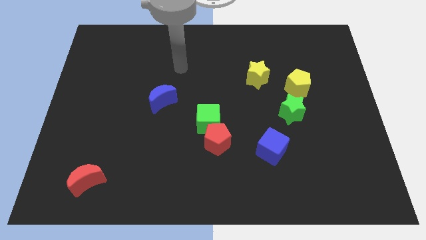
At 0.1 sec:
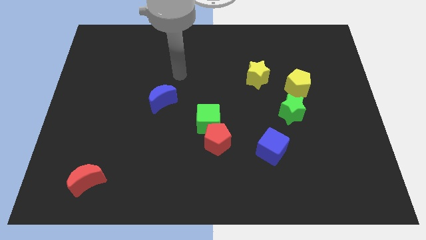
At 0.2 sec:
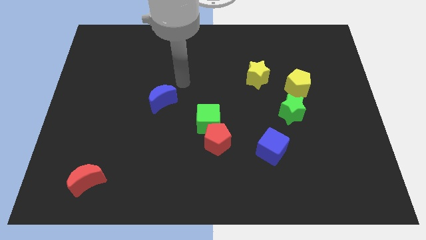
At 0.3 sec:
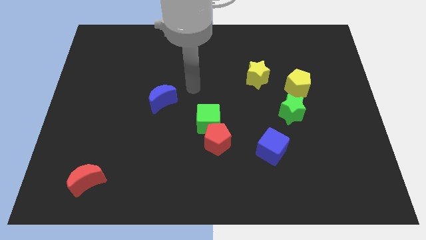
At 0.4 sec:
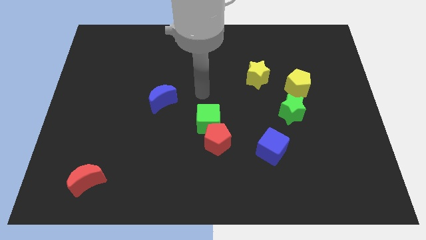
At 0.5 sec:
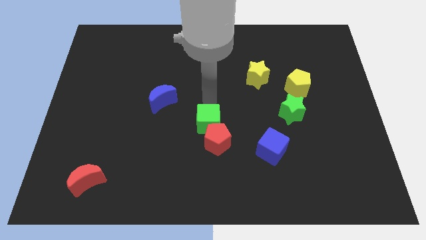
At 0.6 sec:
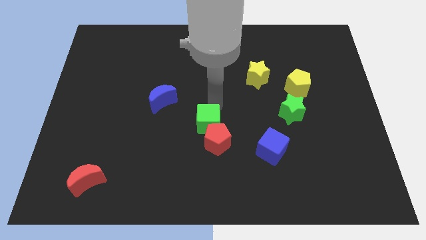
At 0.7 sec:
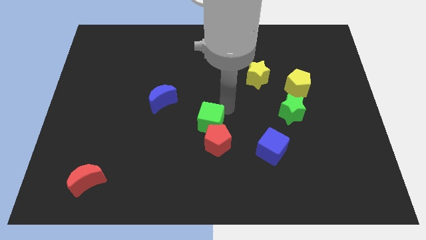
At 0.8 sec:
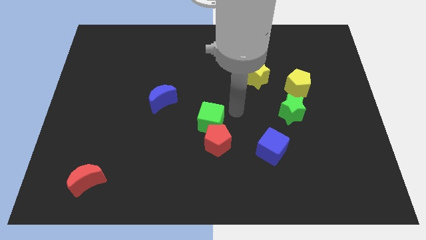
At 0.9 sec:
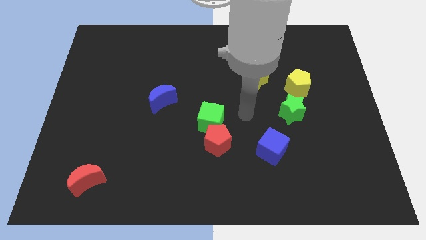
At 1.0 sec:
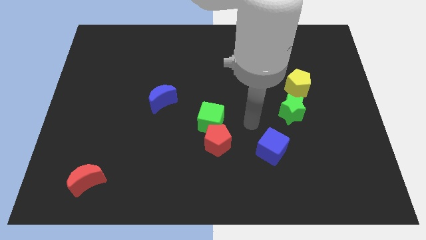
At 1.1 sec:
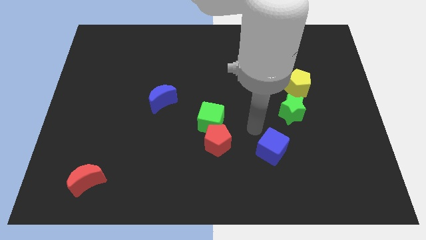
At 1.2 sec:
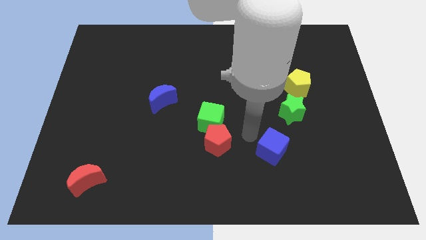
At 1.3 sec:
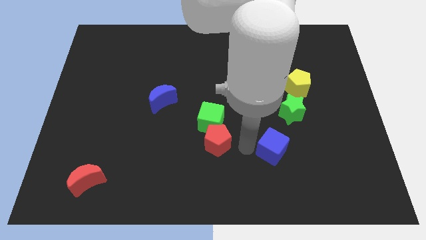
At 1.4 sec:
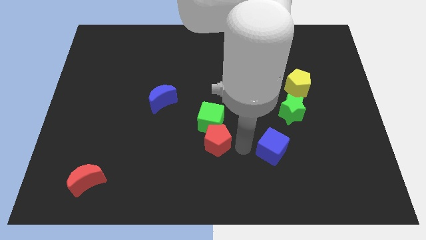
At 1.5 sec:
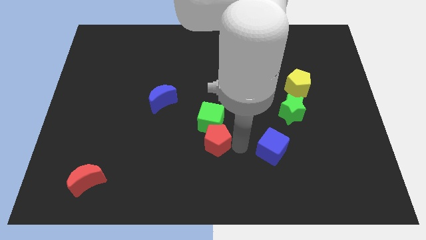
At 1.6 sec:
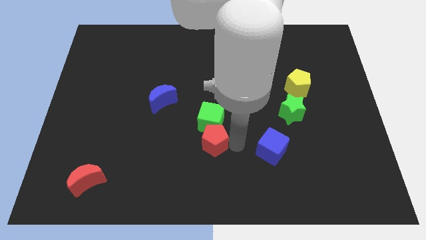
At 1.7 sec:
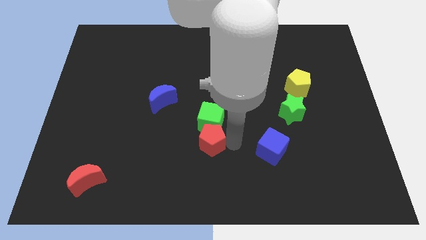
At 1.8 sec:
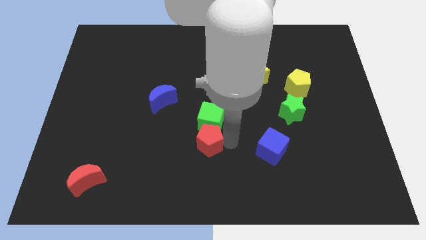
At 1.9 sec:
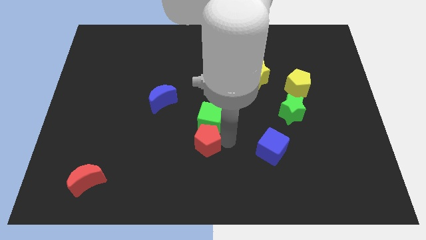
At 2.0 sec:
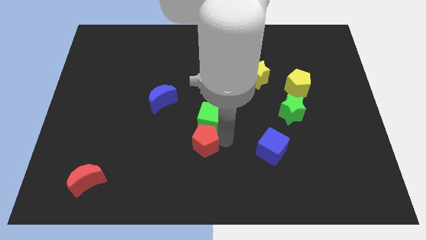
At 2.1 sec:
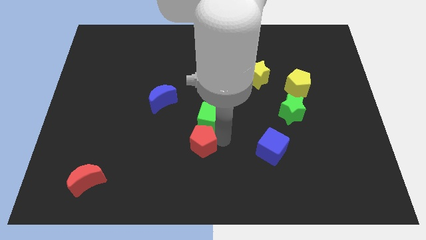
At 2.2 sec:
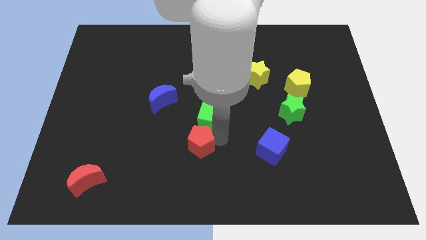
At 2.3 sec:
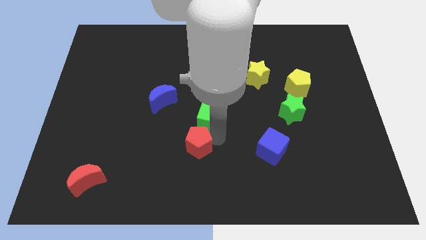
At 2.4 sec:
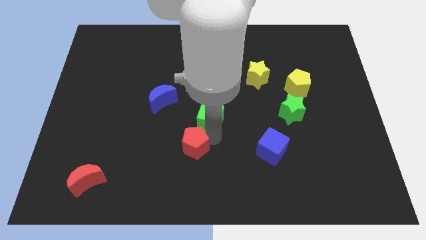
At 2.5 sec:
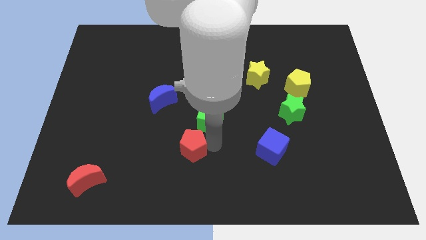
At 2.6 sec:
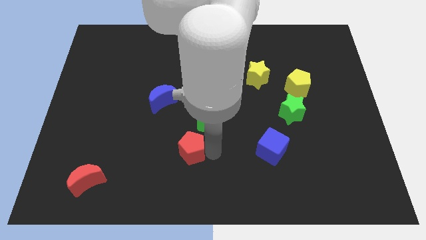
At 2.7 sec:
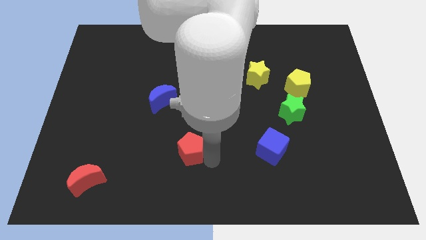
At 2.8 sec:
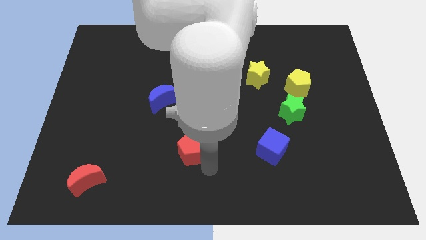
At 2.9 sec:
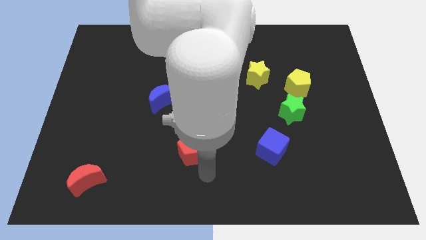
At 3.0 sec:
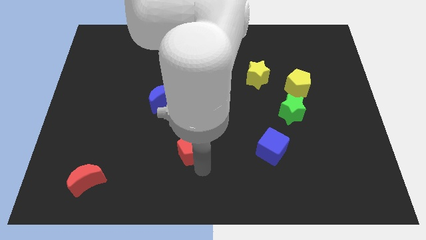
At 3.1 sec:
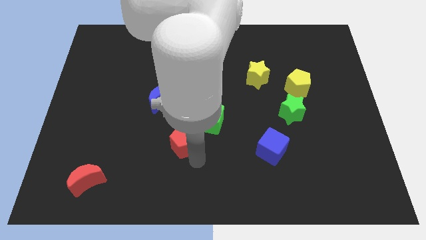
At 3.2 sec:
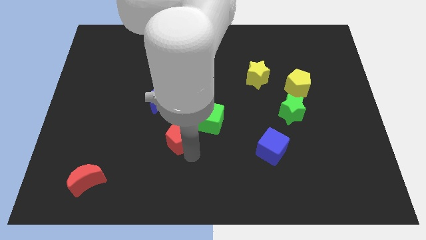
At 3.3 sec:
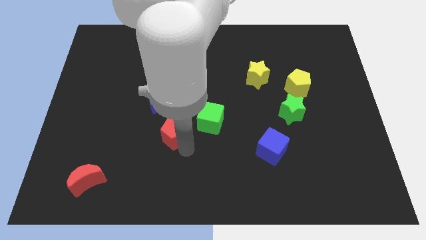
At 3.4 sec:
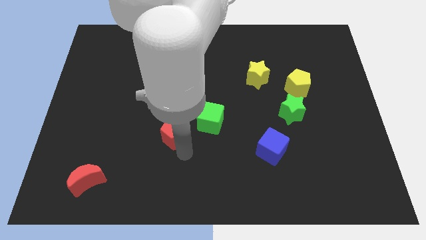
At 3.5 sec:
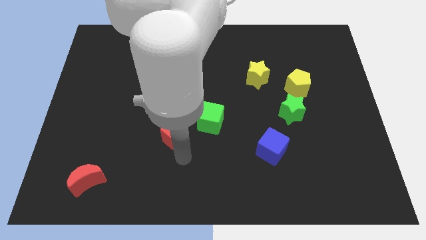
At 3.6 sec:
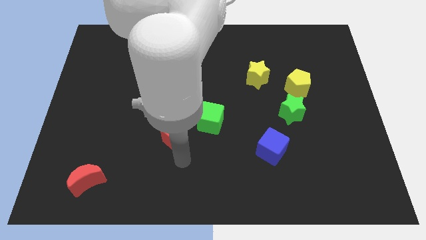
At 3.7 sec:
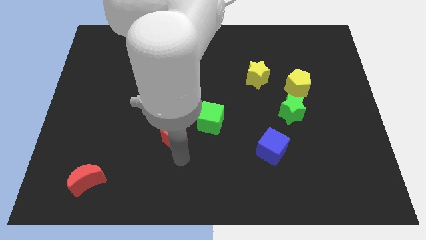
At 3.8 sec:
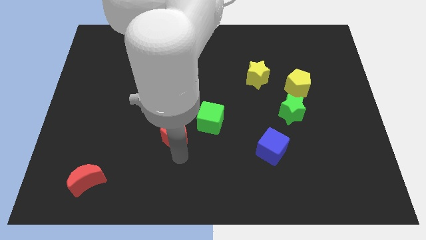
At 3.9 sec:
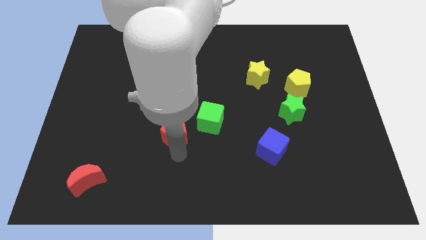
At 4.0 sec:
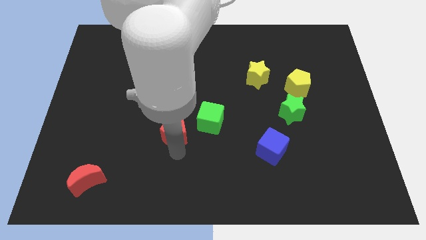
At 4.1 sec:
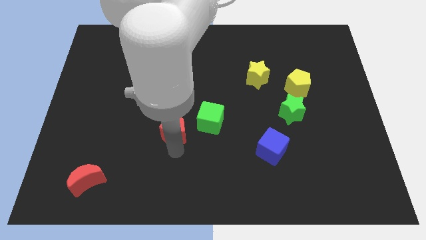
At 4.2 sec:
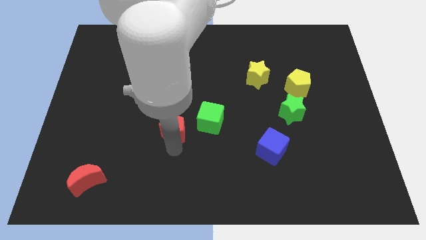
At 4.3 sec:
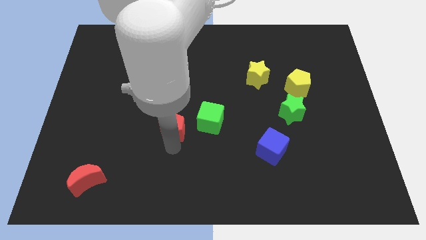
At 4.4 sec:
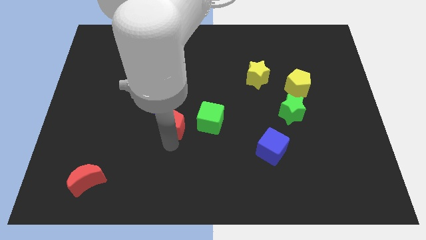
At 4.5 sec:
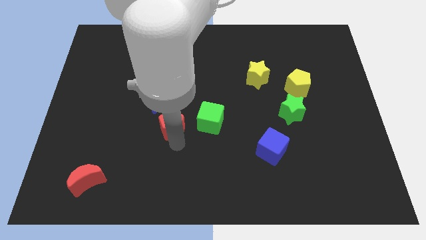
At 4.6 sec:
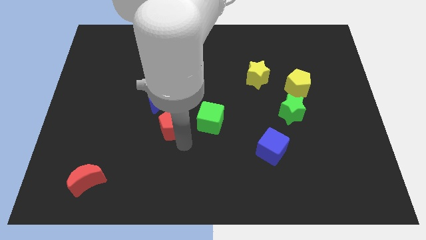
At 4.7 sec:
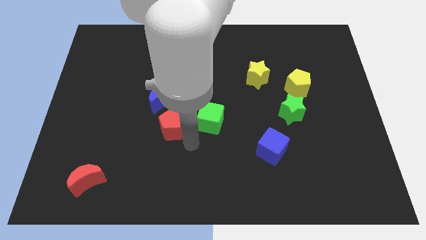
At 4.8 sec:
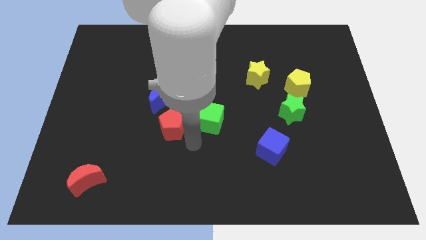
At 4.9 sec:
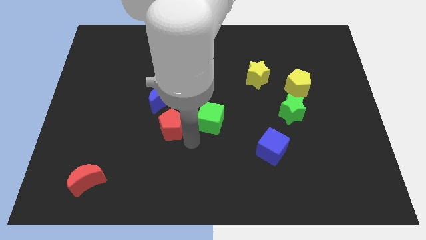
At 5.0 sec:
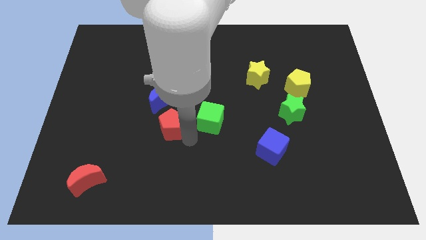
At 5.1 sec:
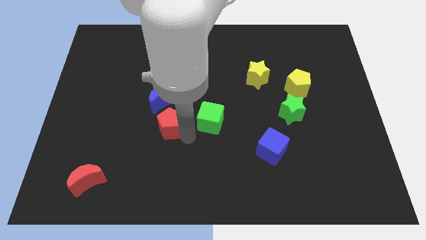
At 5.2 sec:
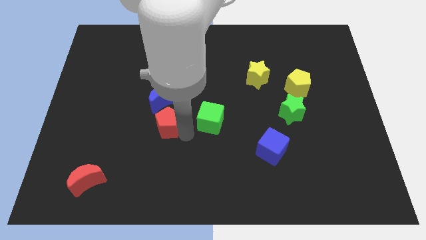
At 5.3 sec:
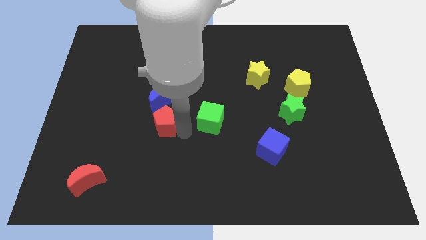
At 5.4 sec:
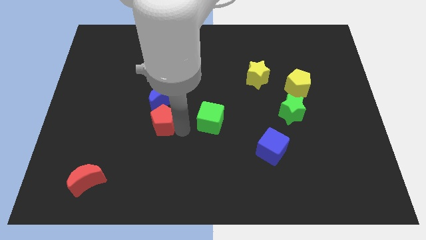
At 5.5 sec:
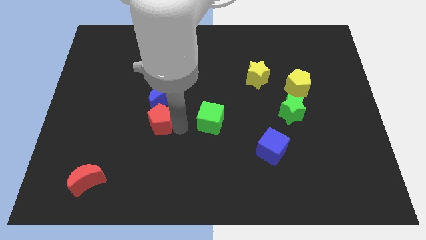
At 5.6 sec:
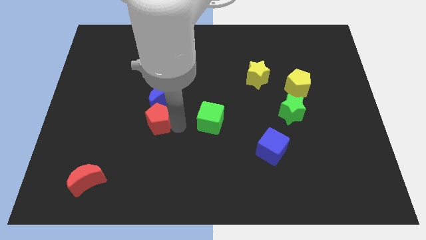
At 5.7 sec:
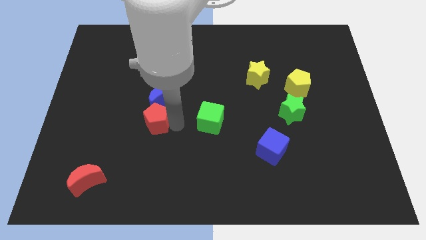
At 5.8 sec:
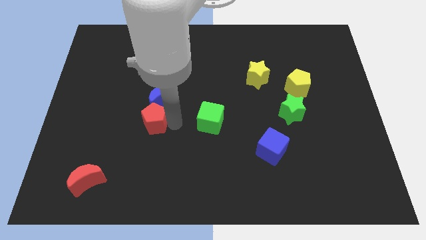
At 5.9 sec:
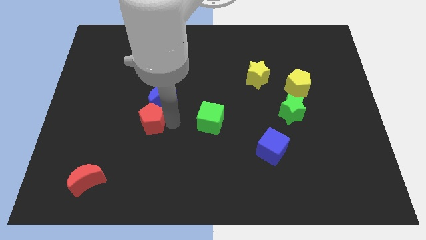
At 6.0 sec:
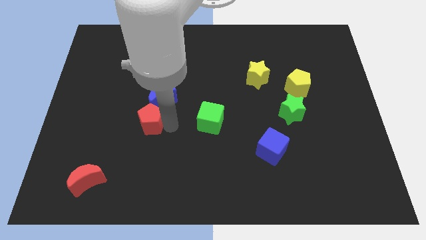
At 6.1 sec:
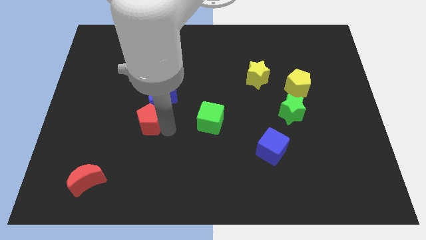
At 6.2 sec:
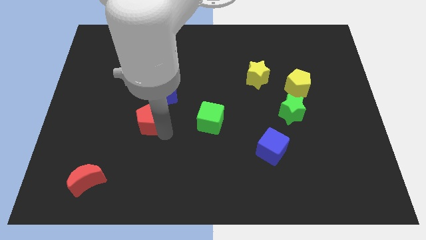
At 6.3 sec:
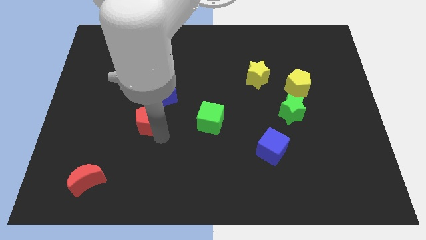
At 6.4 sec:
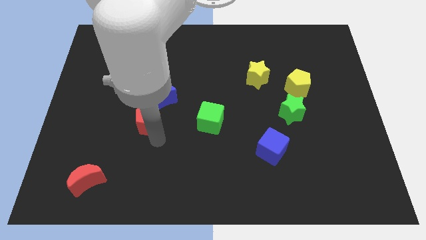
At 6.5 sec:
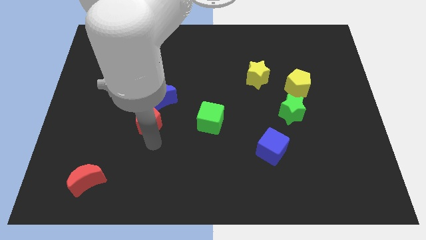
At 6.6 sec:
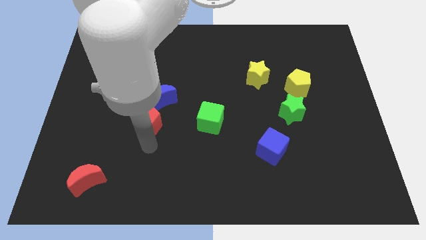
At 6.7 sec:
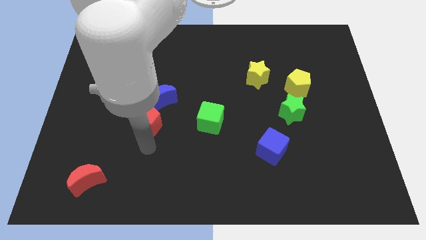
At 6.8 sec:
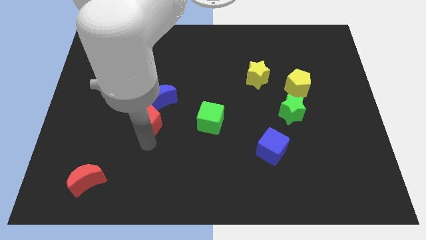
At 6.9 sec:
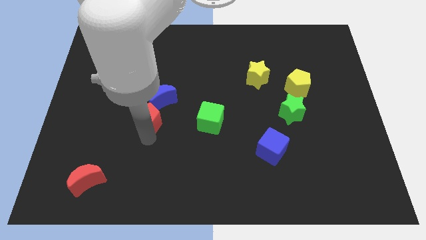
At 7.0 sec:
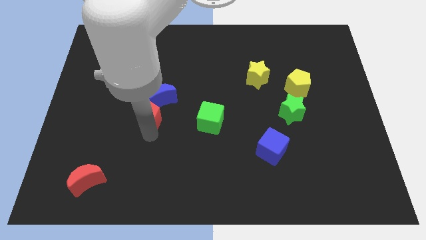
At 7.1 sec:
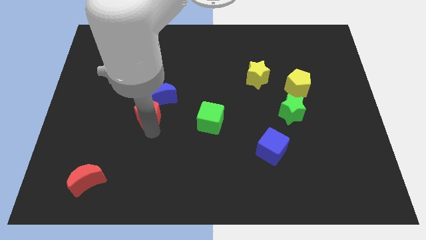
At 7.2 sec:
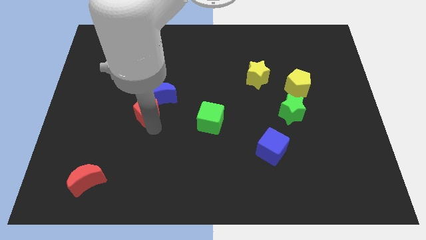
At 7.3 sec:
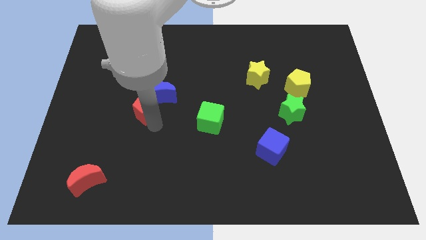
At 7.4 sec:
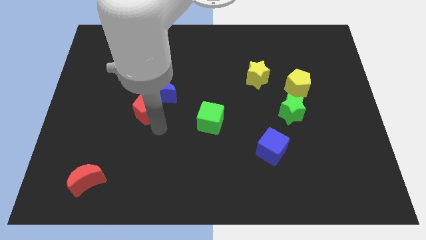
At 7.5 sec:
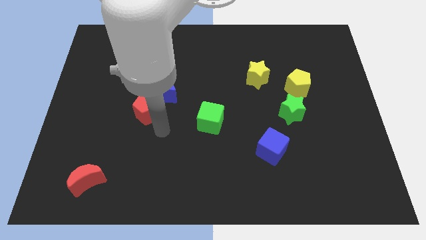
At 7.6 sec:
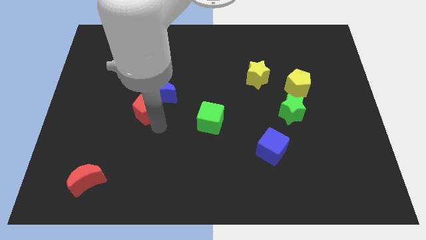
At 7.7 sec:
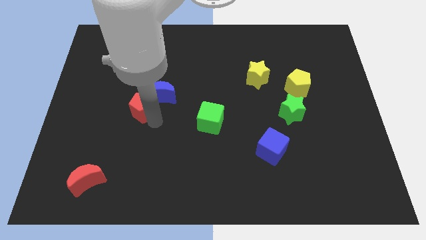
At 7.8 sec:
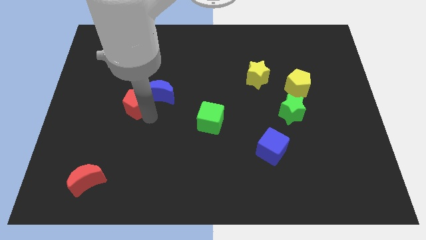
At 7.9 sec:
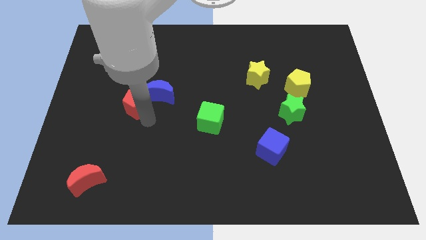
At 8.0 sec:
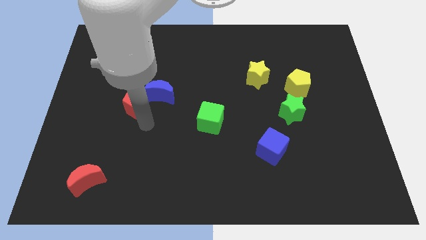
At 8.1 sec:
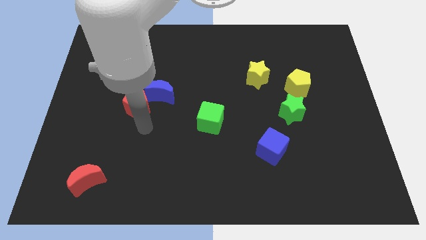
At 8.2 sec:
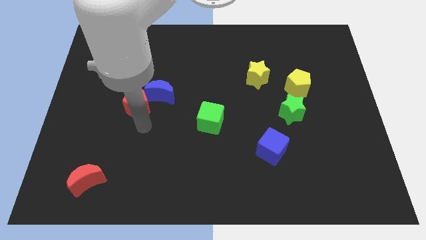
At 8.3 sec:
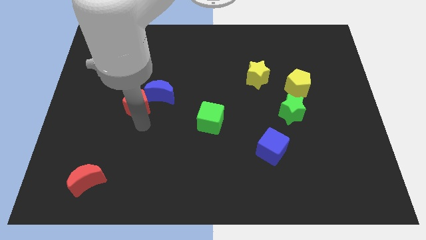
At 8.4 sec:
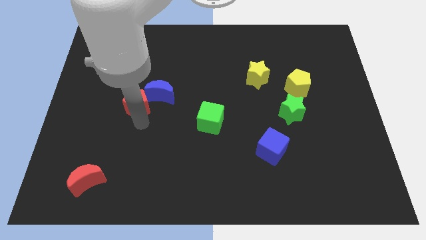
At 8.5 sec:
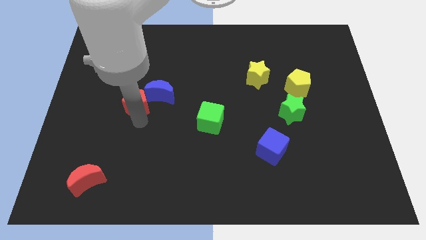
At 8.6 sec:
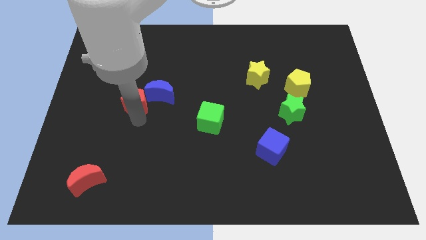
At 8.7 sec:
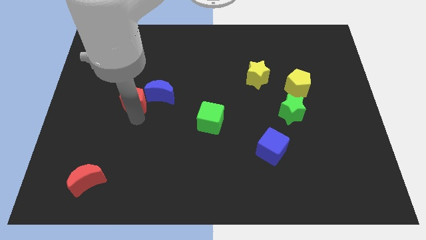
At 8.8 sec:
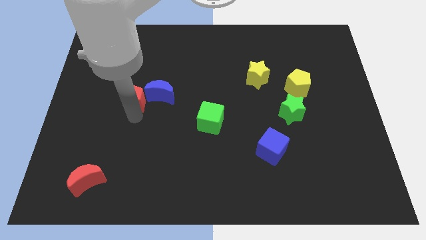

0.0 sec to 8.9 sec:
move the red pentagon upwards and left
